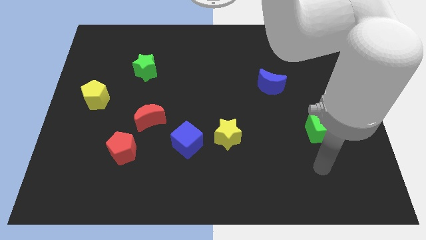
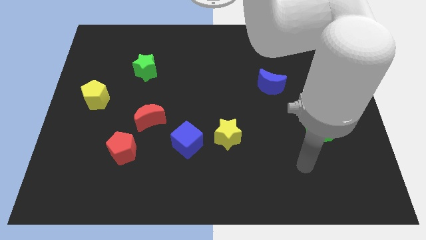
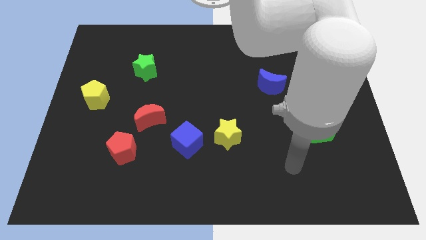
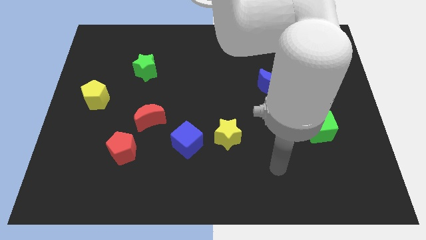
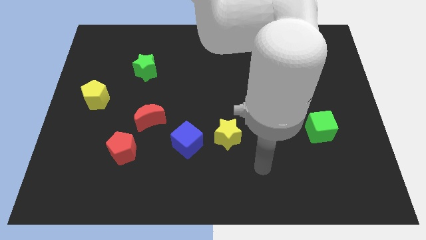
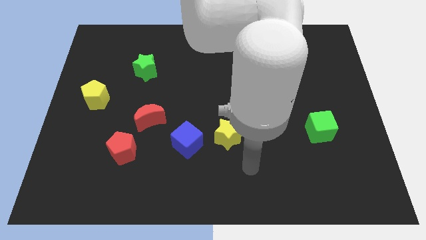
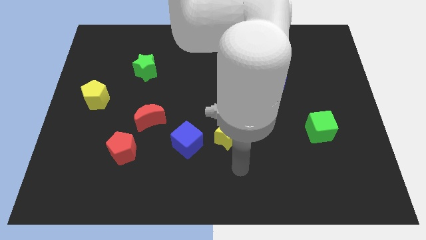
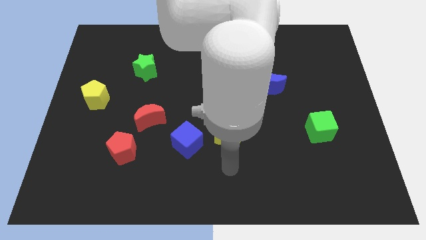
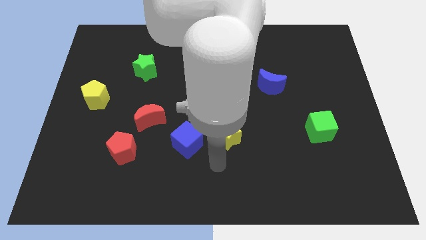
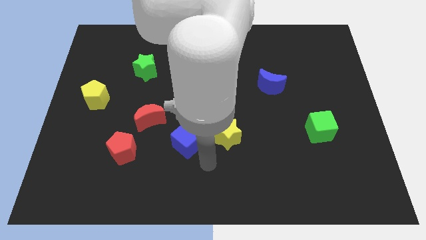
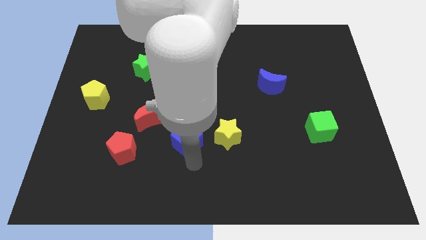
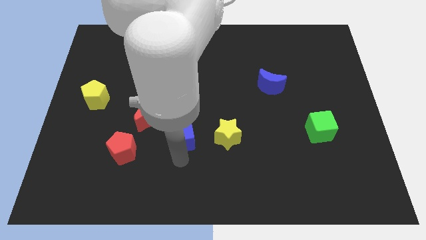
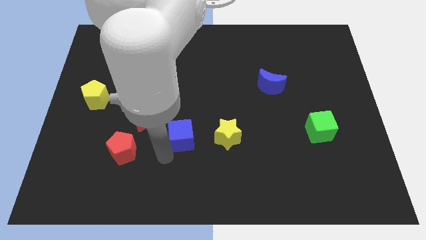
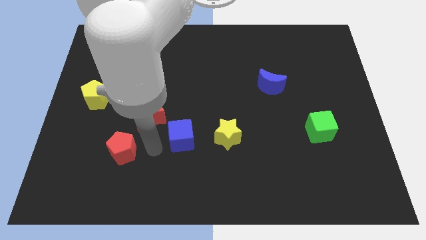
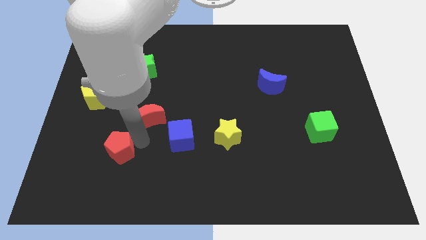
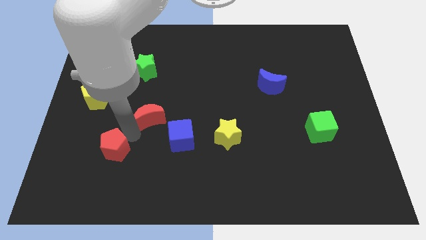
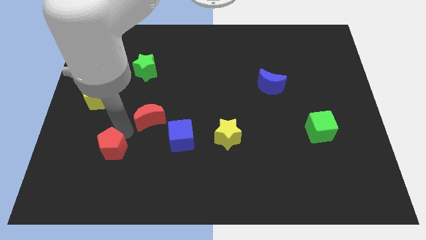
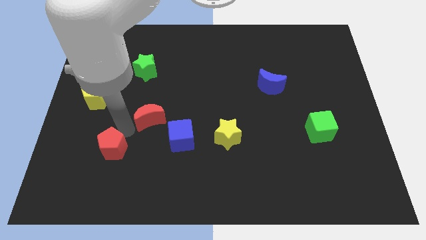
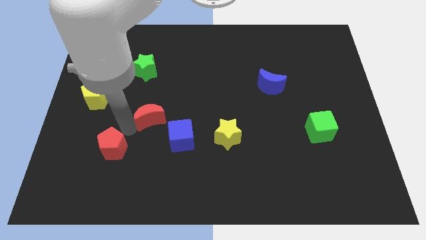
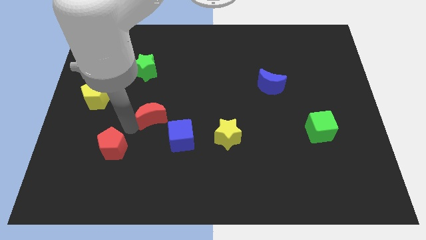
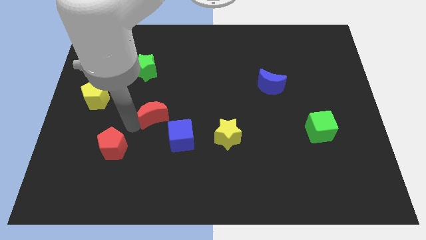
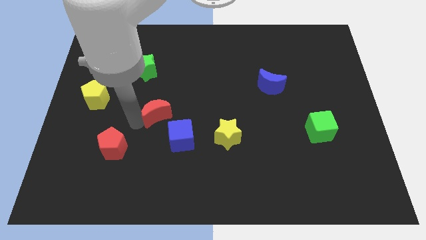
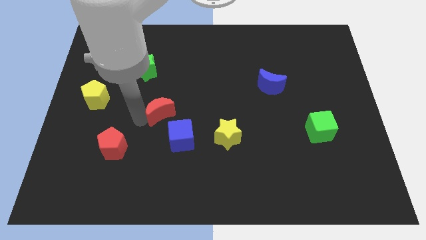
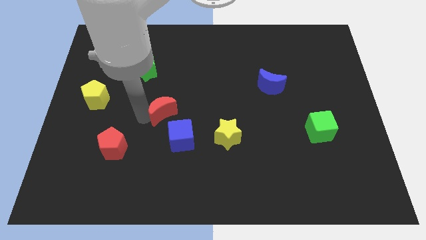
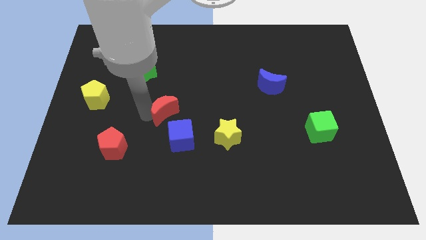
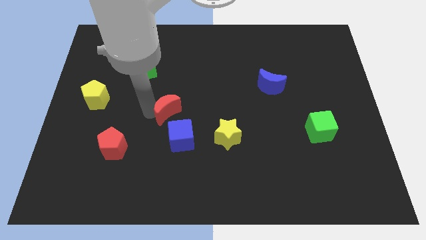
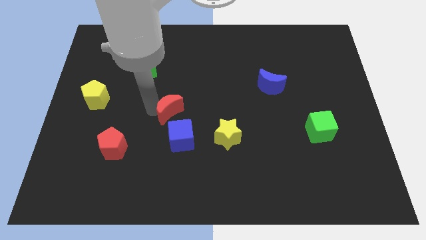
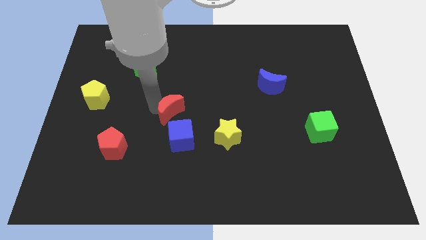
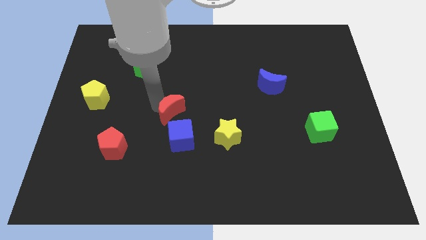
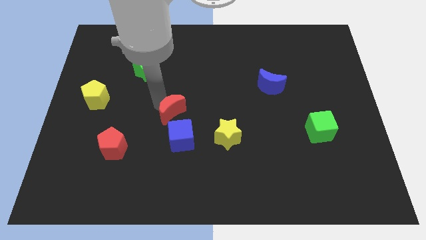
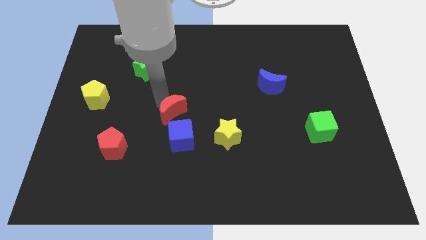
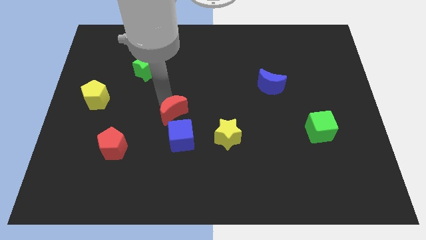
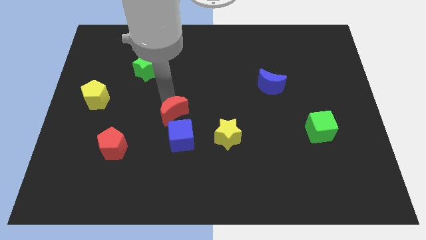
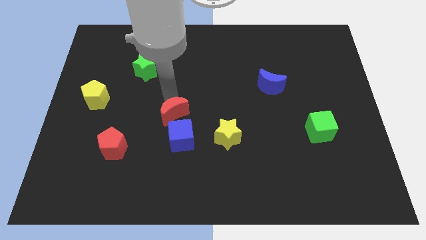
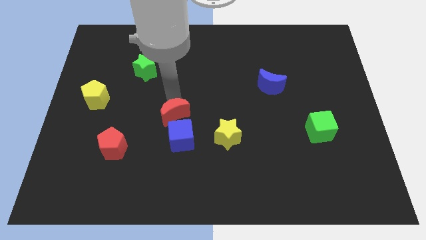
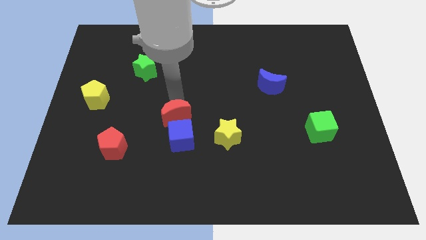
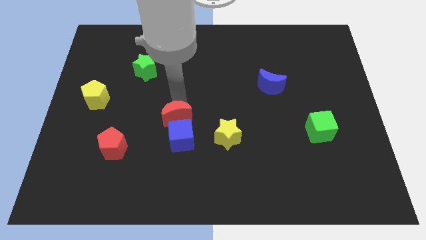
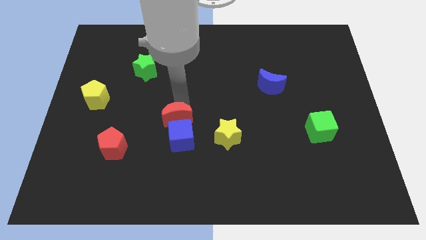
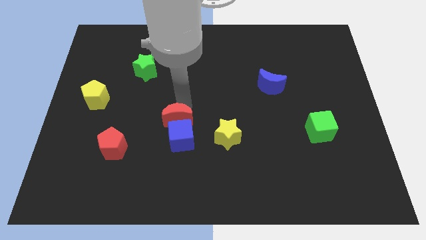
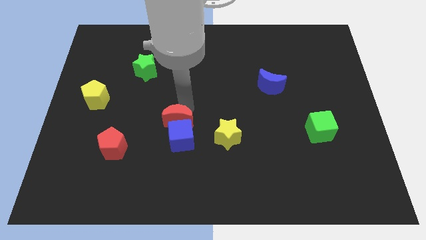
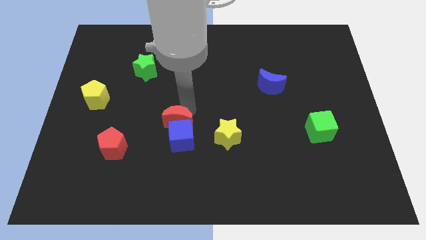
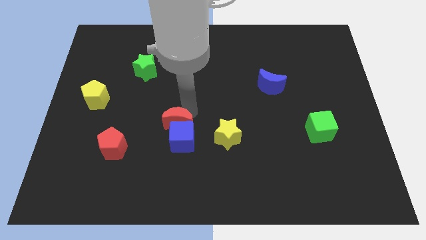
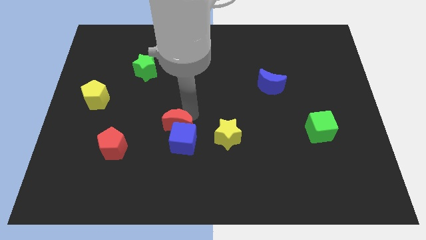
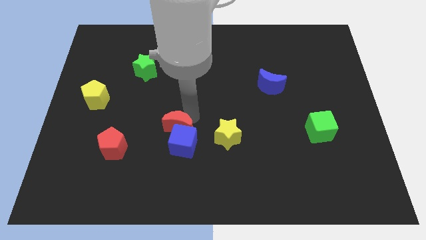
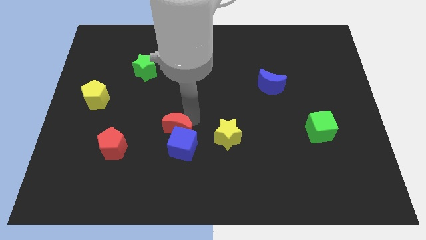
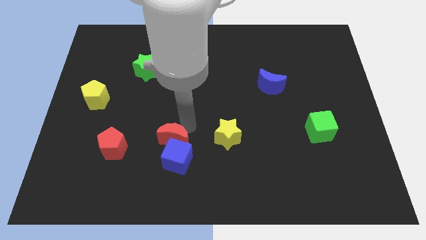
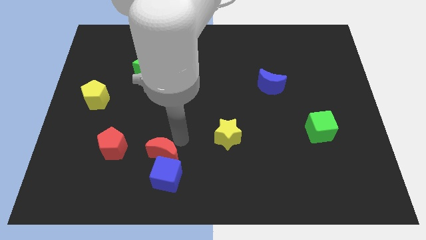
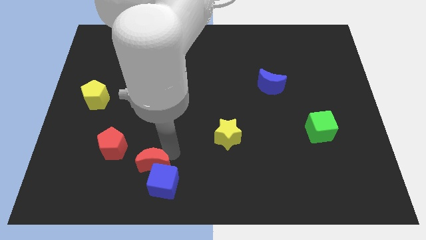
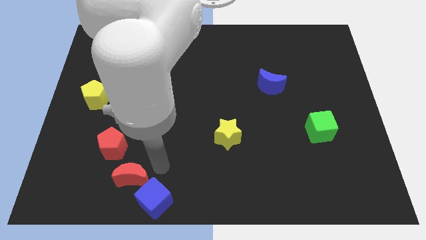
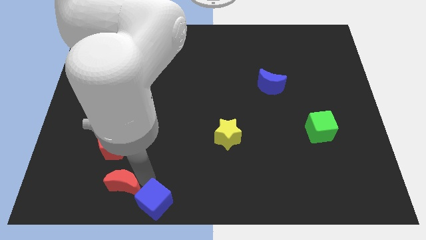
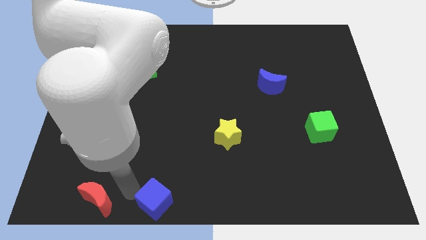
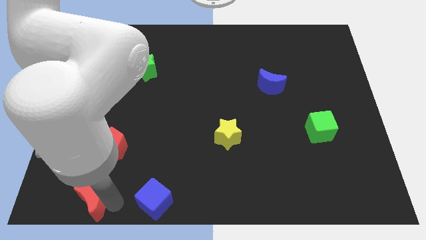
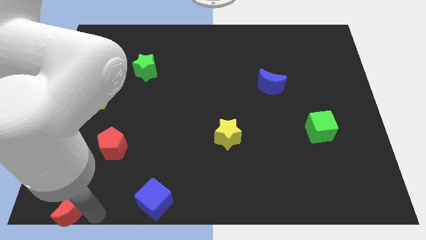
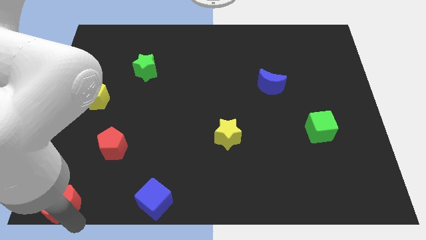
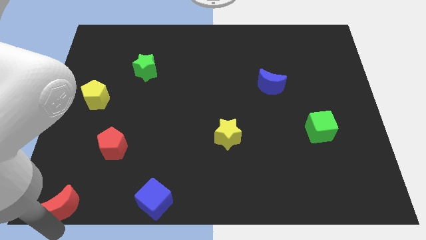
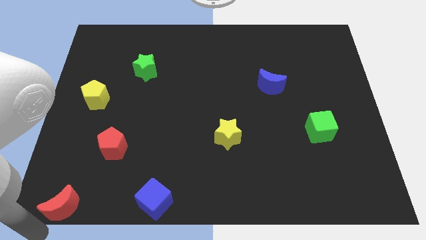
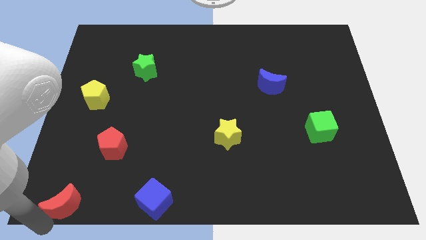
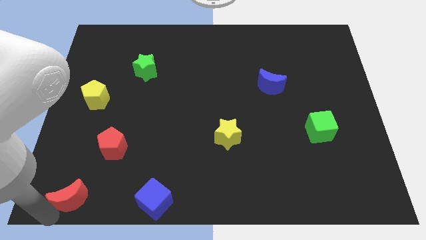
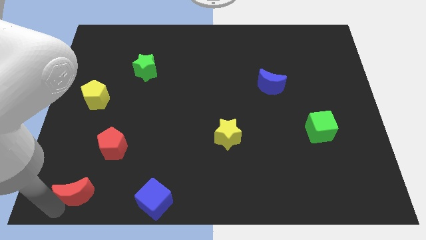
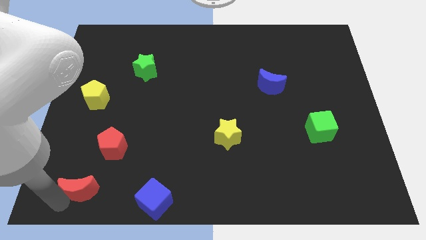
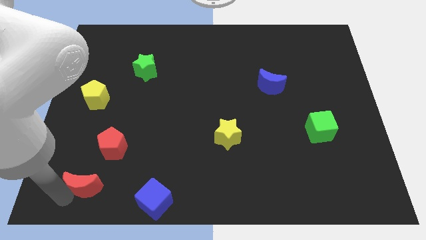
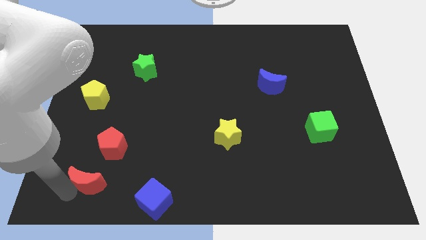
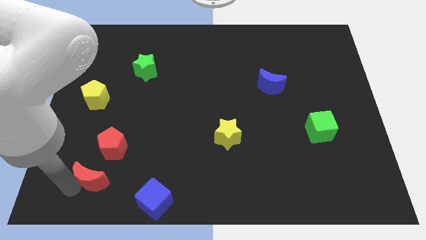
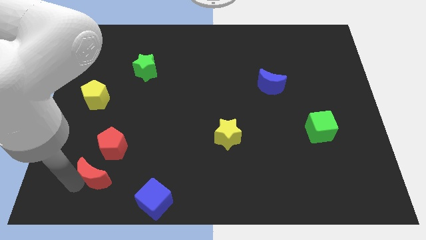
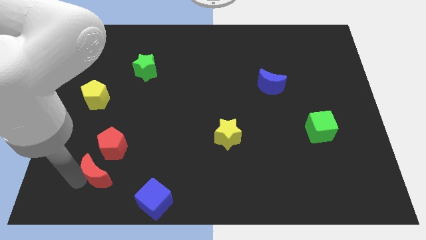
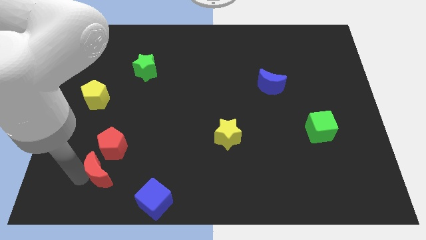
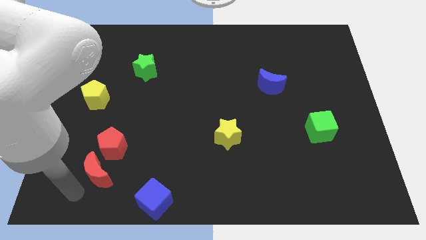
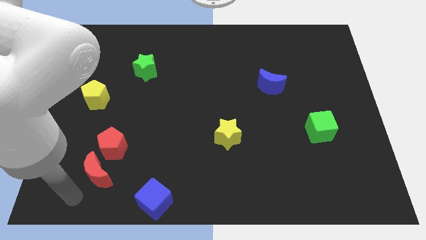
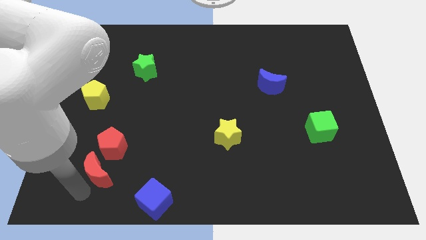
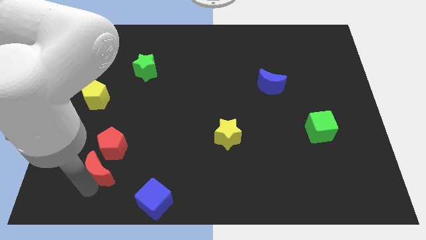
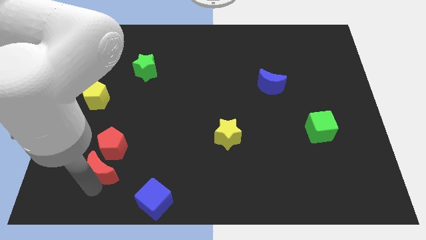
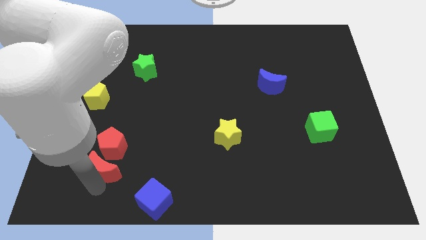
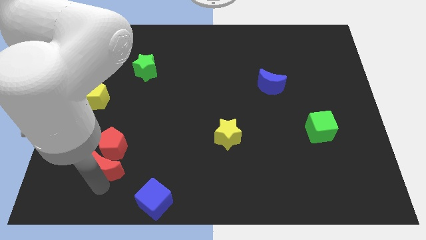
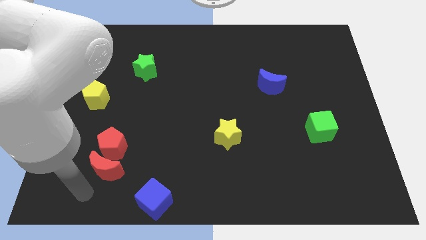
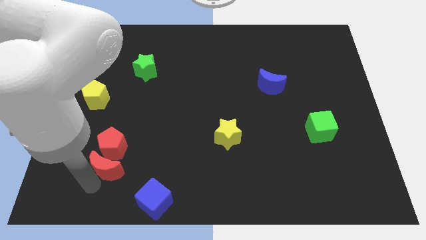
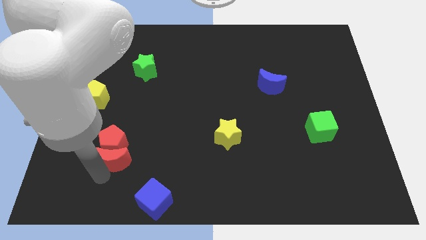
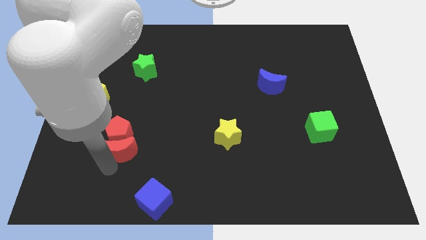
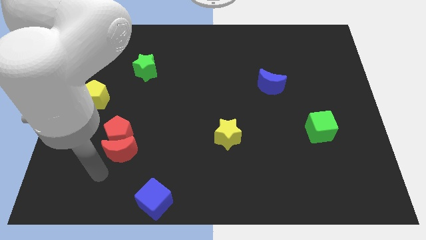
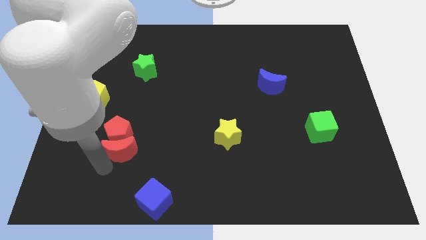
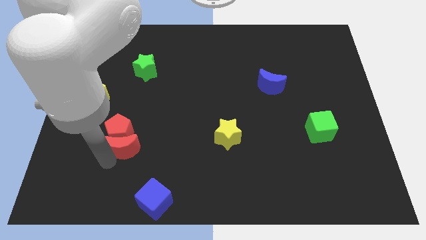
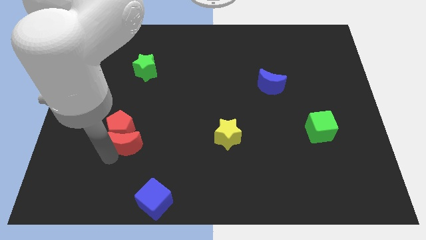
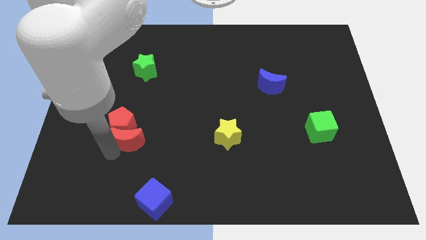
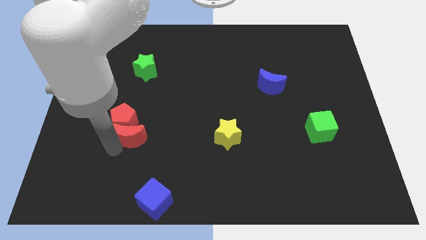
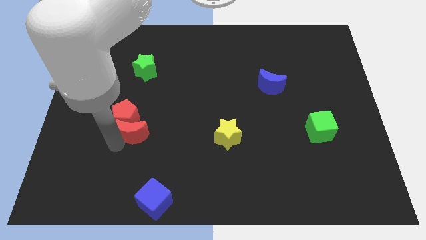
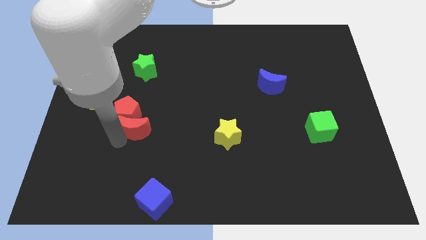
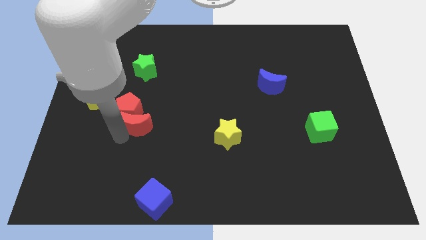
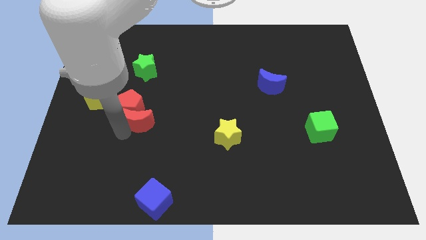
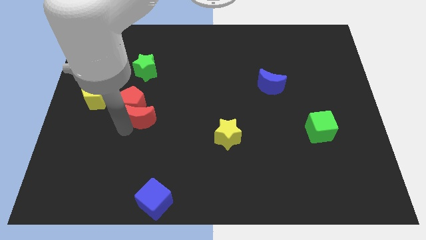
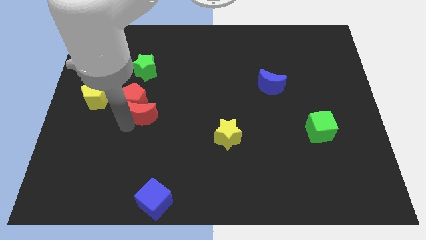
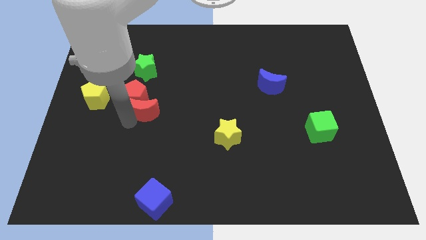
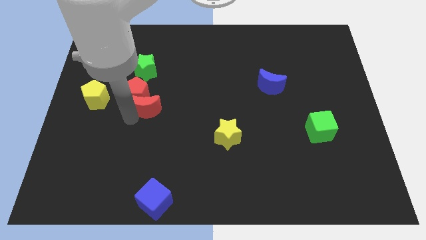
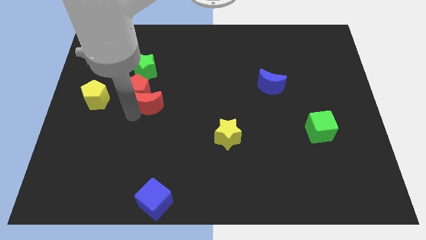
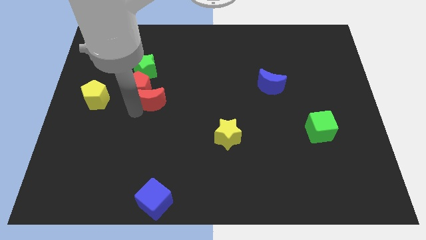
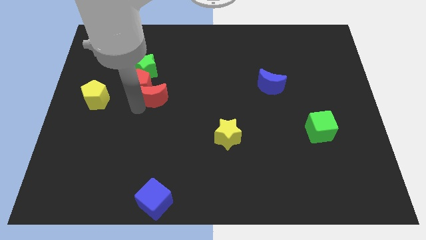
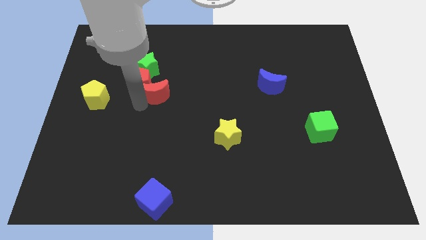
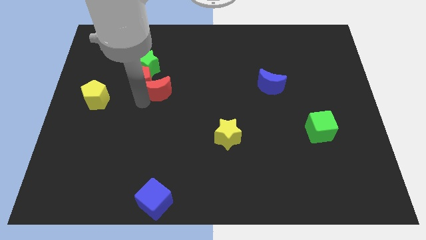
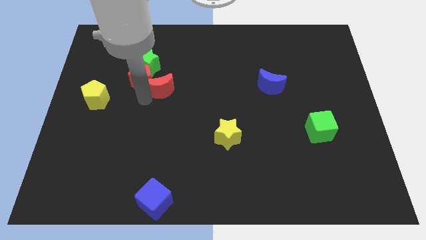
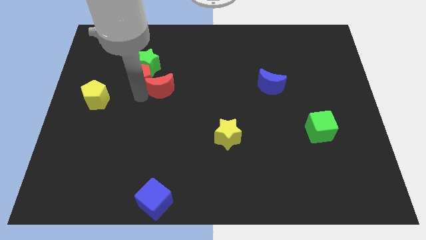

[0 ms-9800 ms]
push the red moon a little up and then right
